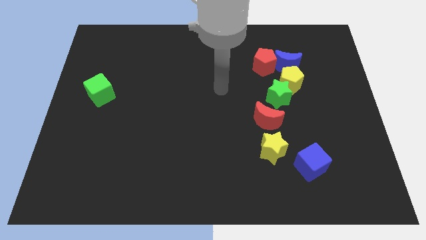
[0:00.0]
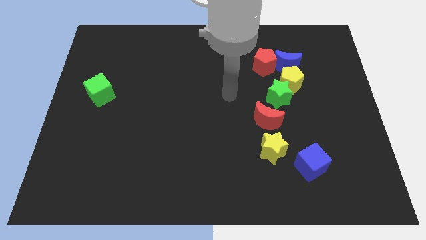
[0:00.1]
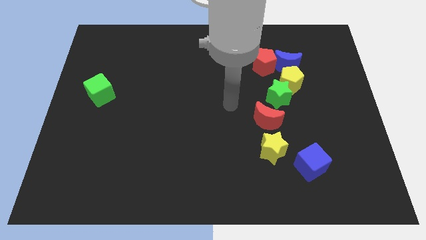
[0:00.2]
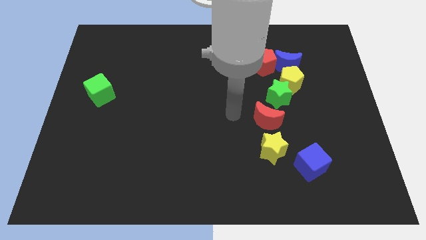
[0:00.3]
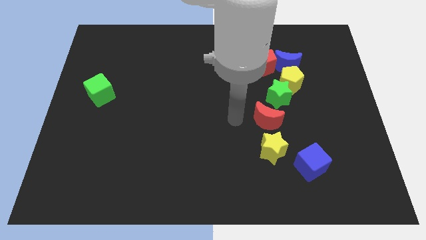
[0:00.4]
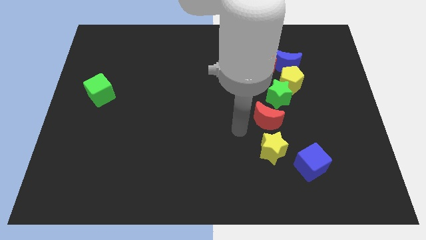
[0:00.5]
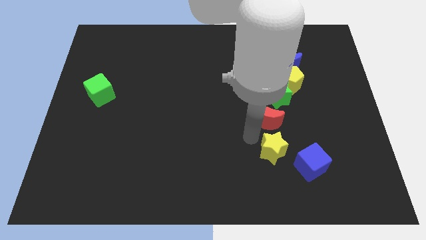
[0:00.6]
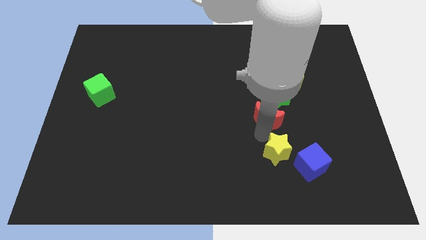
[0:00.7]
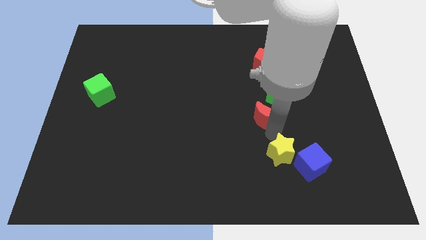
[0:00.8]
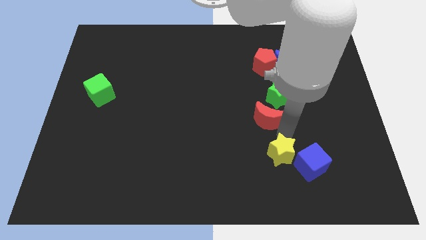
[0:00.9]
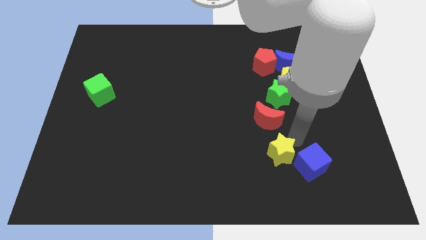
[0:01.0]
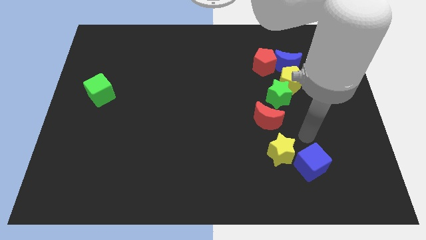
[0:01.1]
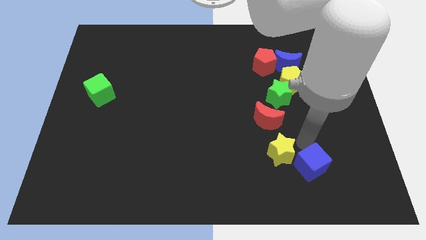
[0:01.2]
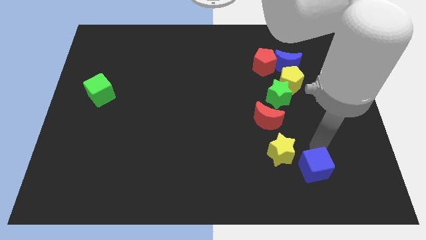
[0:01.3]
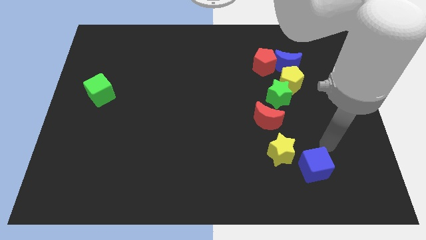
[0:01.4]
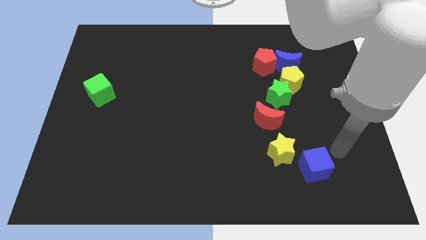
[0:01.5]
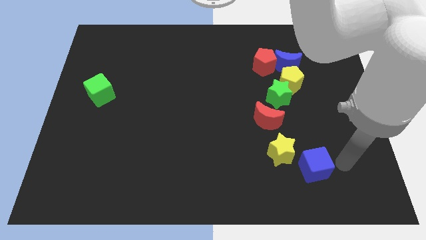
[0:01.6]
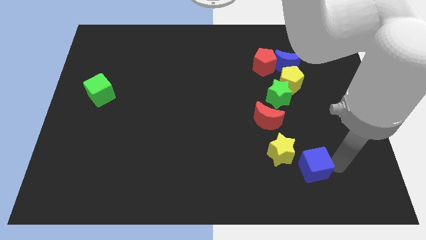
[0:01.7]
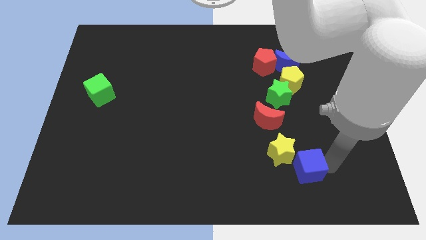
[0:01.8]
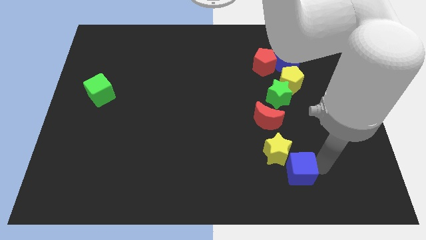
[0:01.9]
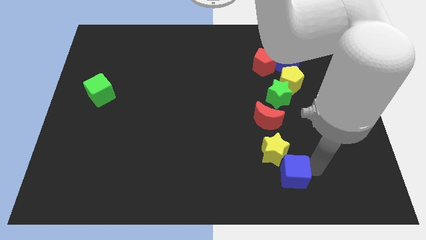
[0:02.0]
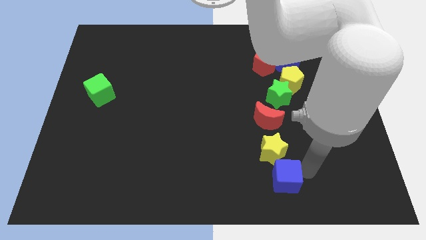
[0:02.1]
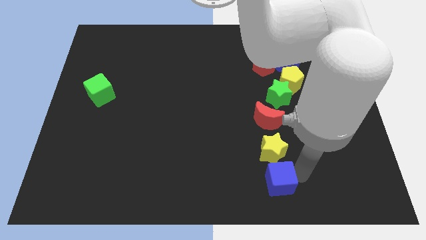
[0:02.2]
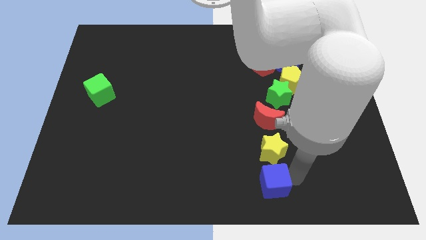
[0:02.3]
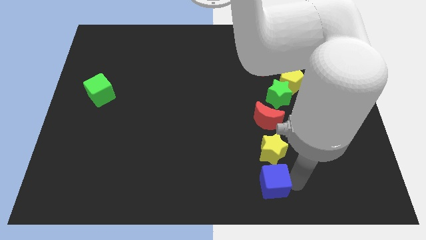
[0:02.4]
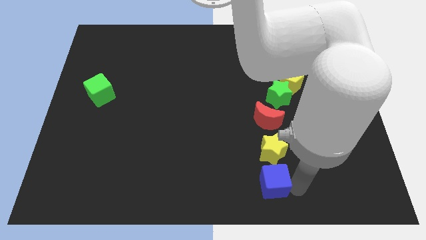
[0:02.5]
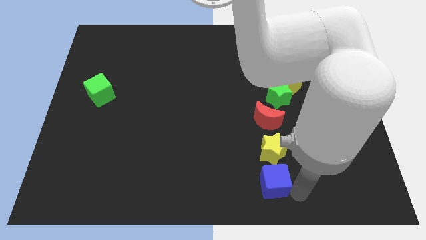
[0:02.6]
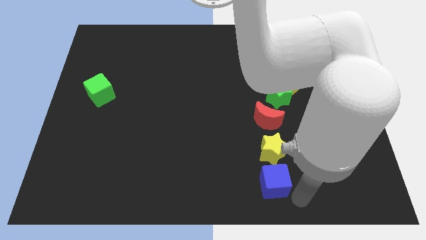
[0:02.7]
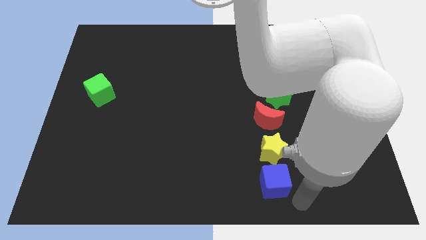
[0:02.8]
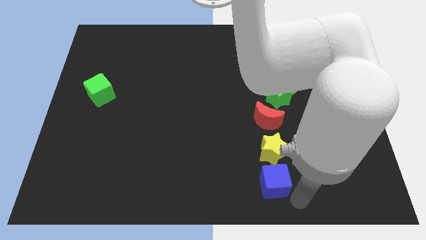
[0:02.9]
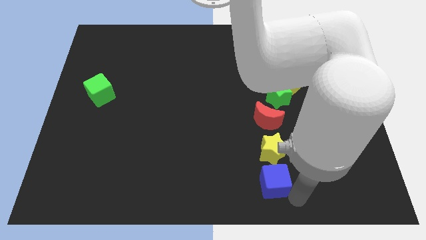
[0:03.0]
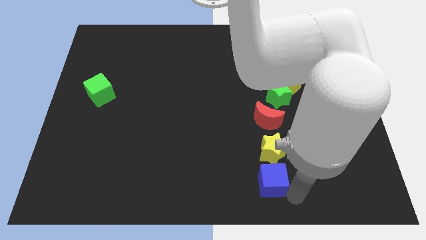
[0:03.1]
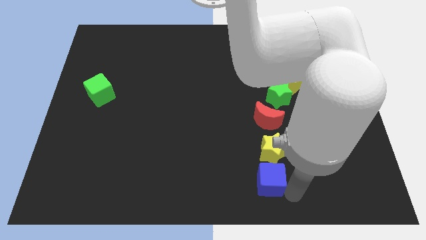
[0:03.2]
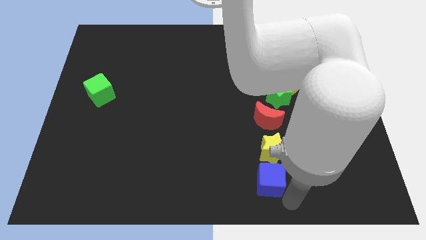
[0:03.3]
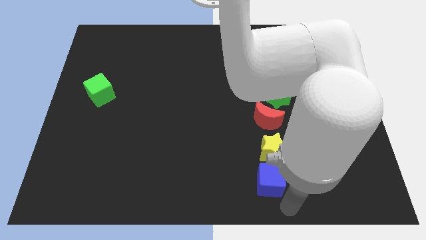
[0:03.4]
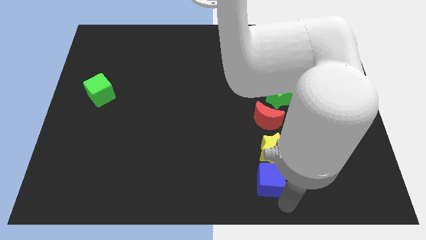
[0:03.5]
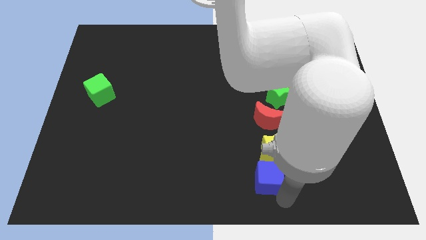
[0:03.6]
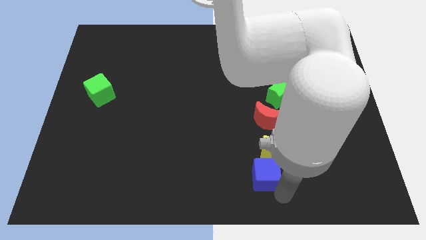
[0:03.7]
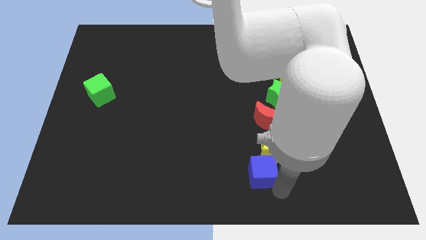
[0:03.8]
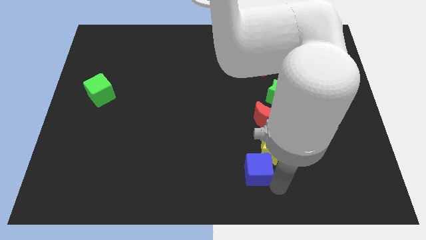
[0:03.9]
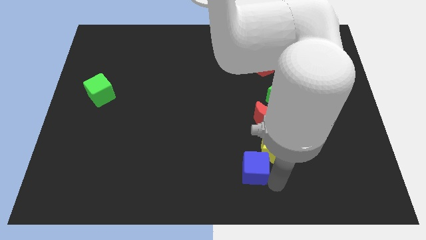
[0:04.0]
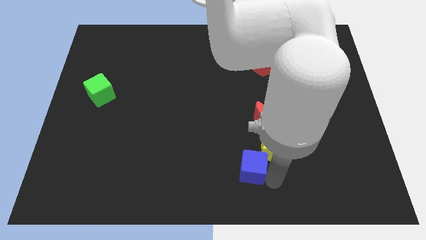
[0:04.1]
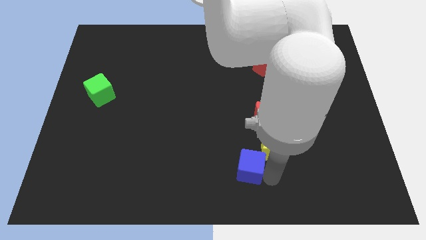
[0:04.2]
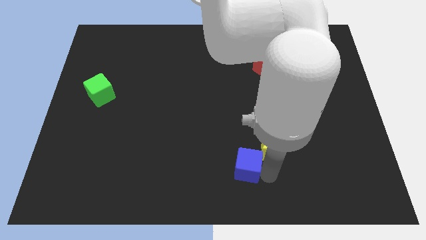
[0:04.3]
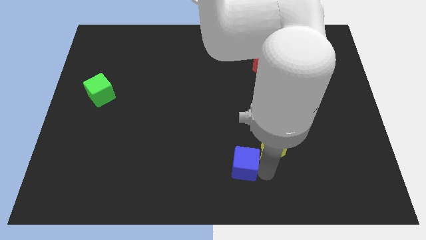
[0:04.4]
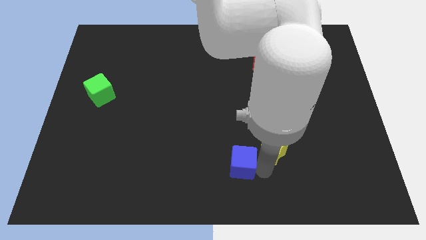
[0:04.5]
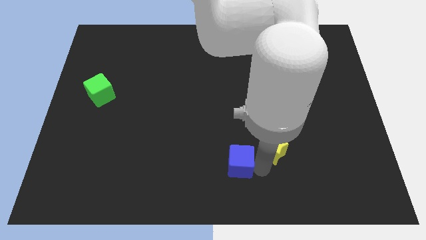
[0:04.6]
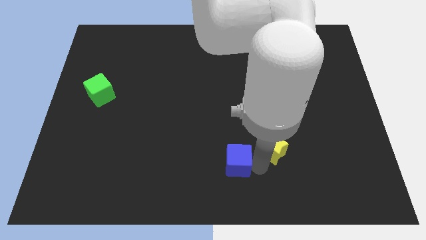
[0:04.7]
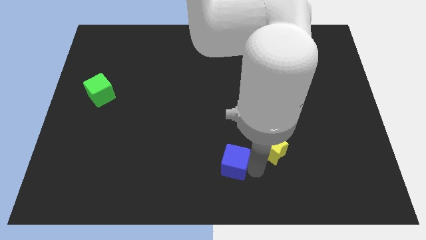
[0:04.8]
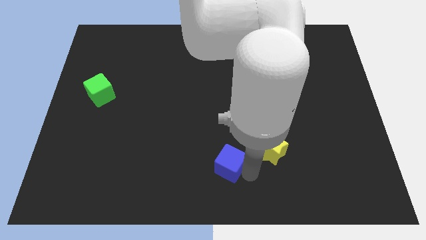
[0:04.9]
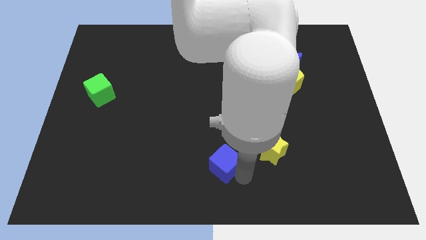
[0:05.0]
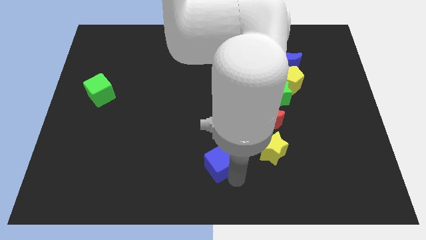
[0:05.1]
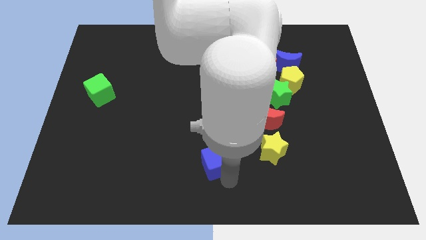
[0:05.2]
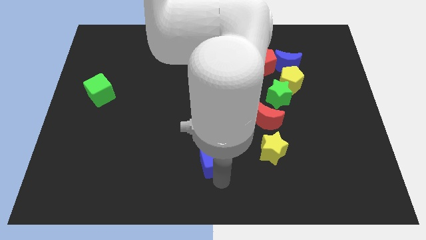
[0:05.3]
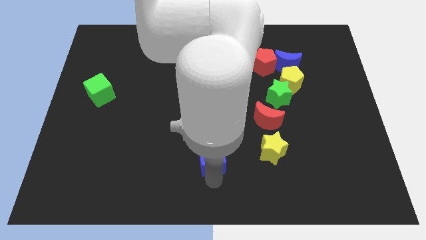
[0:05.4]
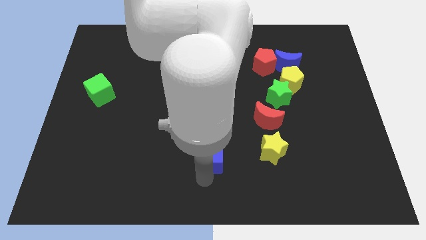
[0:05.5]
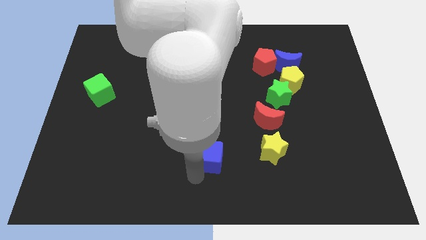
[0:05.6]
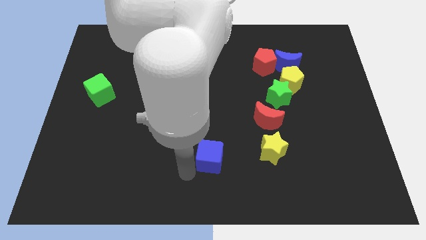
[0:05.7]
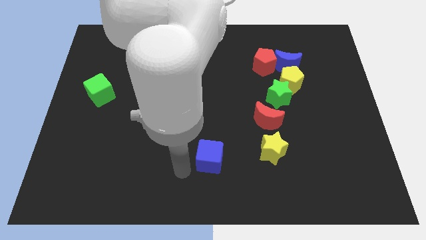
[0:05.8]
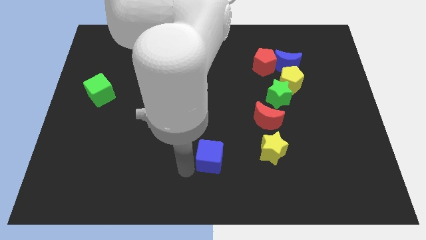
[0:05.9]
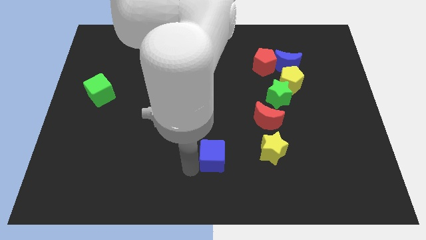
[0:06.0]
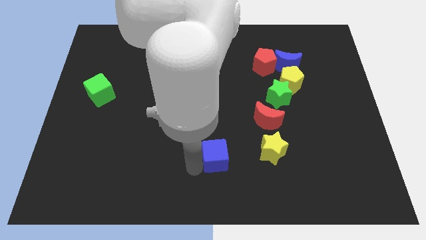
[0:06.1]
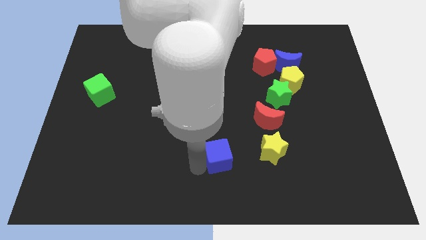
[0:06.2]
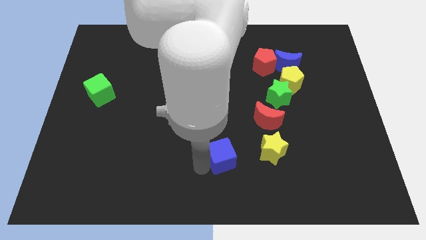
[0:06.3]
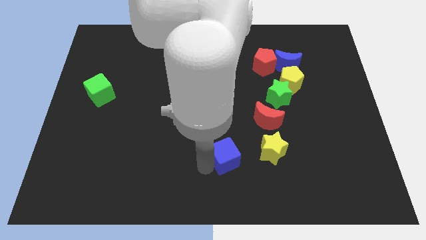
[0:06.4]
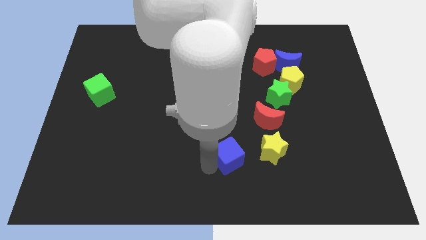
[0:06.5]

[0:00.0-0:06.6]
push the blue cube slightly up and to the left diagonally

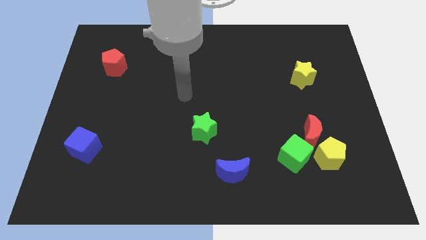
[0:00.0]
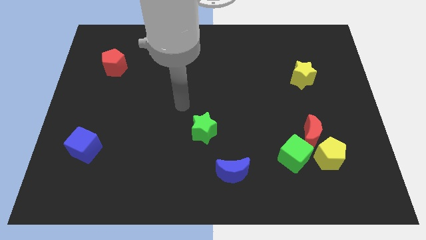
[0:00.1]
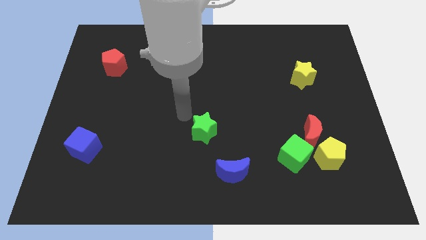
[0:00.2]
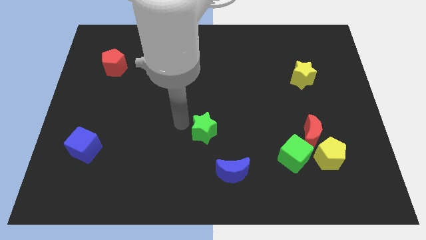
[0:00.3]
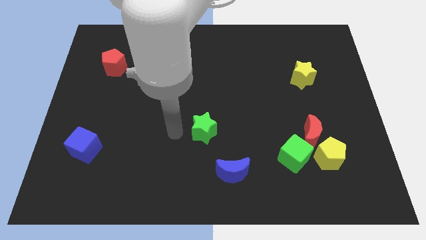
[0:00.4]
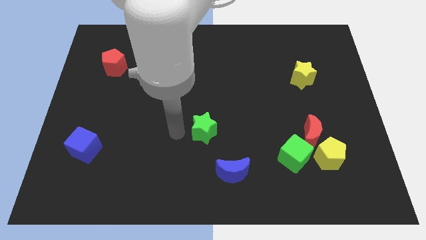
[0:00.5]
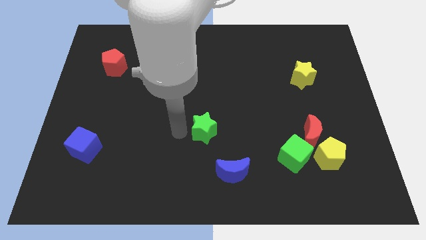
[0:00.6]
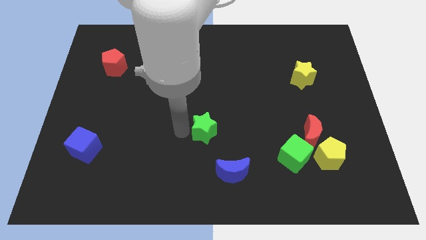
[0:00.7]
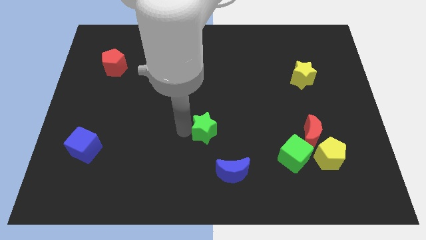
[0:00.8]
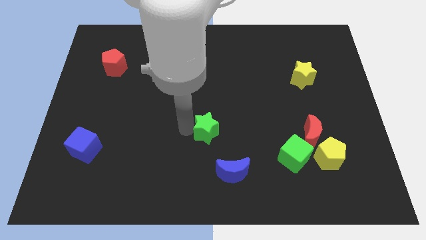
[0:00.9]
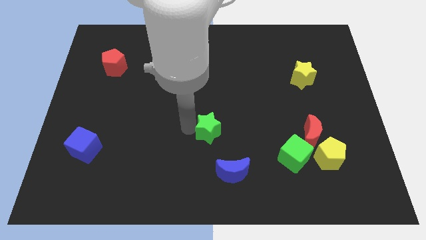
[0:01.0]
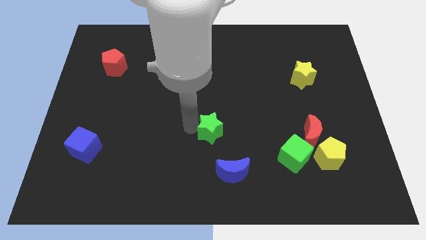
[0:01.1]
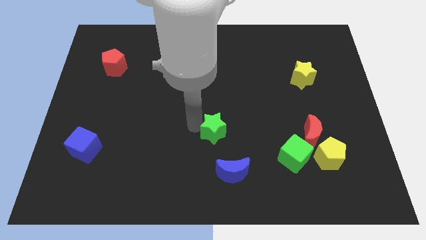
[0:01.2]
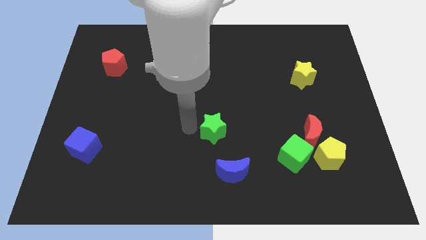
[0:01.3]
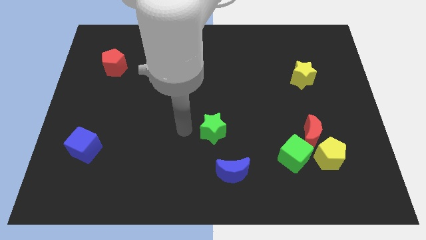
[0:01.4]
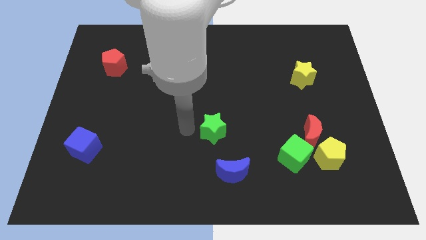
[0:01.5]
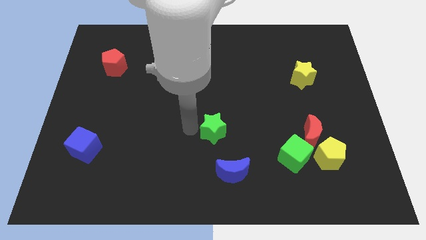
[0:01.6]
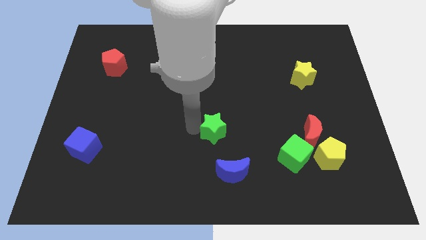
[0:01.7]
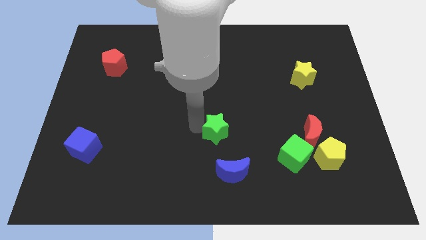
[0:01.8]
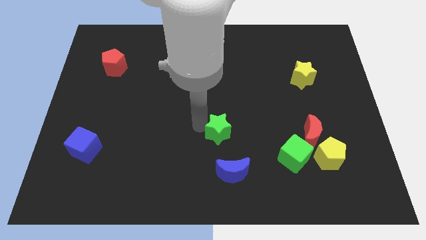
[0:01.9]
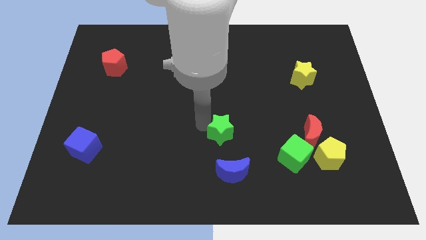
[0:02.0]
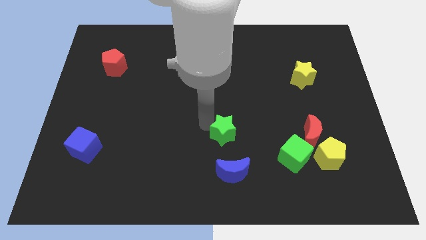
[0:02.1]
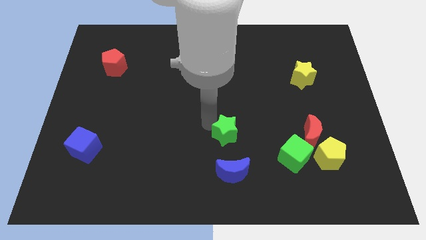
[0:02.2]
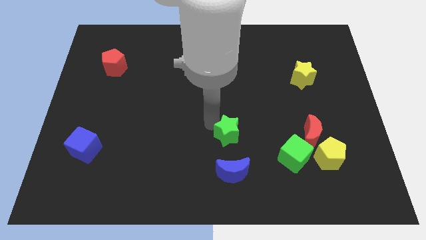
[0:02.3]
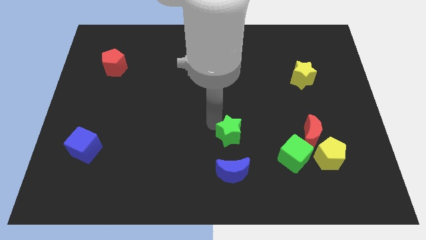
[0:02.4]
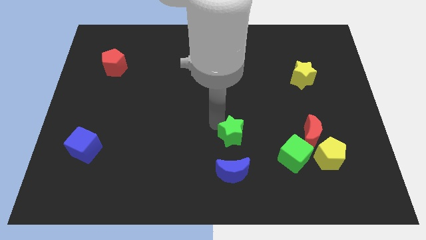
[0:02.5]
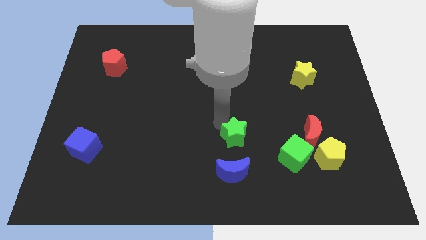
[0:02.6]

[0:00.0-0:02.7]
slightly move the green star right
